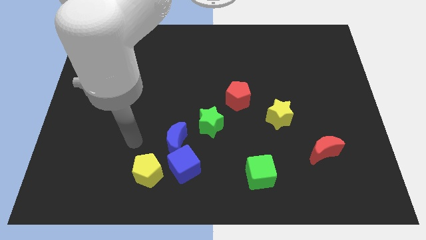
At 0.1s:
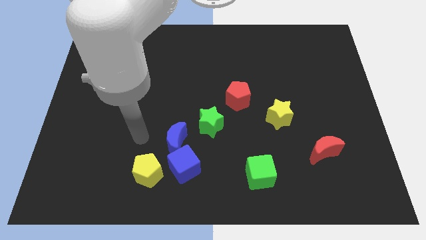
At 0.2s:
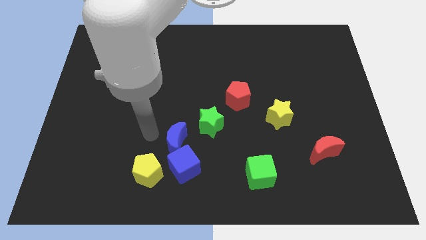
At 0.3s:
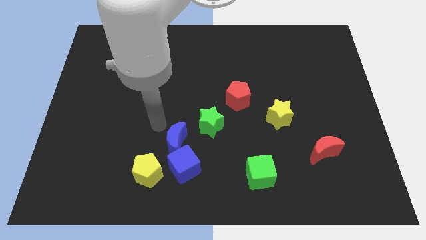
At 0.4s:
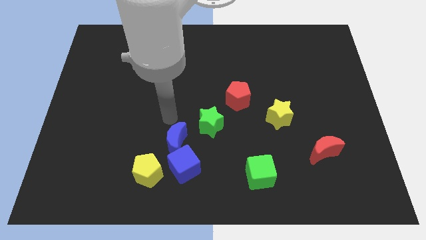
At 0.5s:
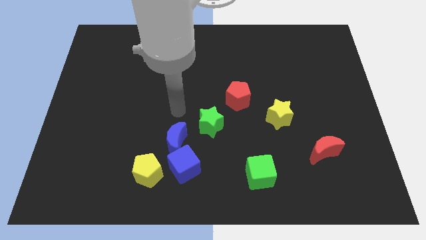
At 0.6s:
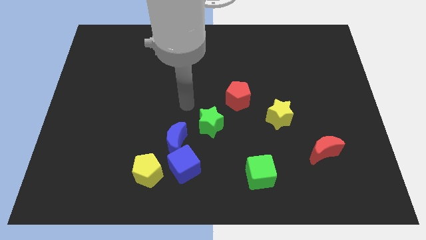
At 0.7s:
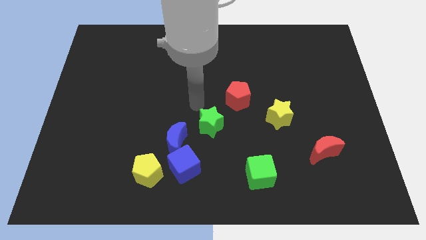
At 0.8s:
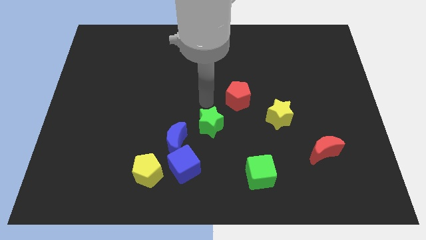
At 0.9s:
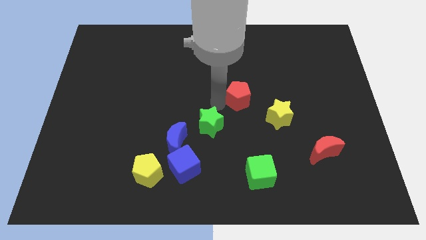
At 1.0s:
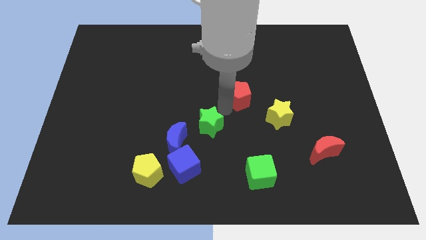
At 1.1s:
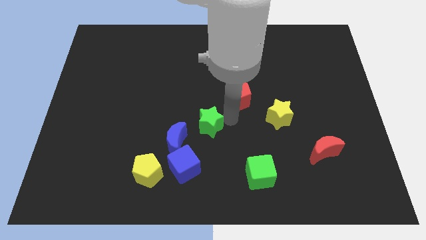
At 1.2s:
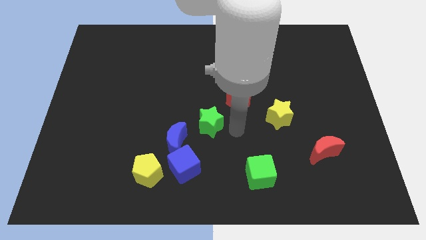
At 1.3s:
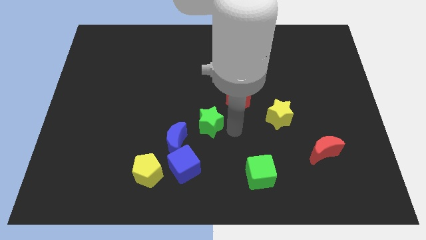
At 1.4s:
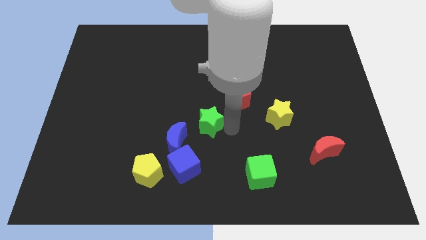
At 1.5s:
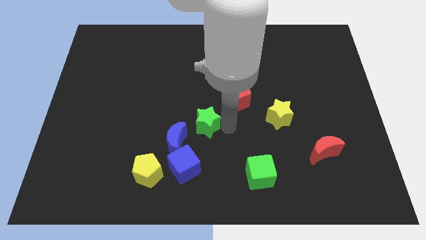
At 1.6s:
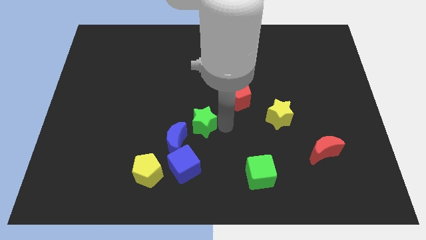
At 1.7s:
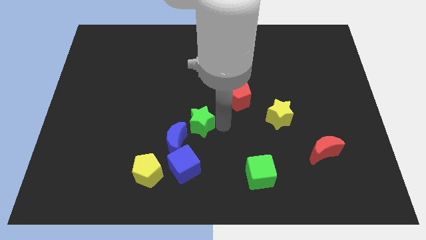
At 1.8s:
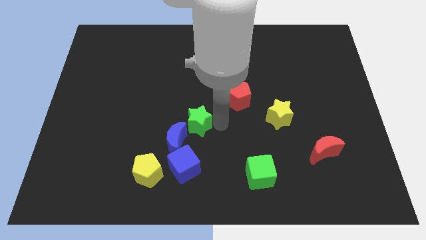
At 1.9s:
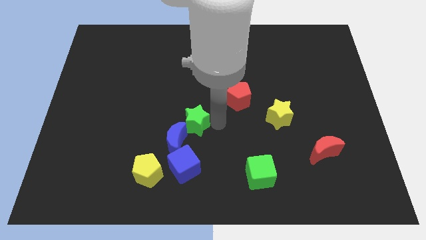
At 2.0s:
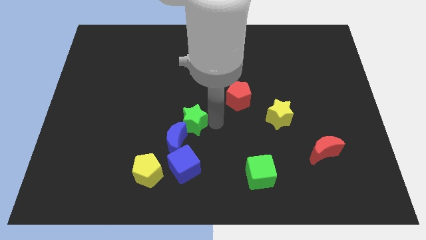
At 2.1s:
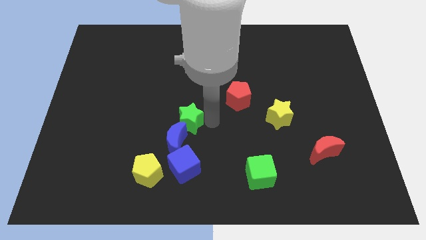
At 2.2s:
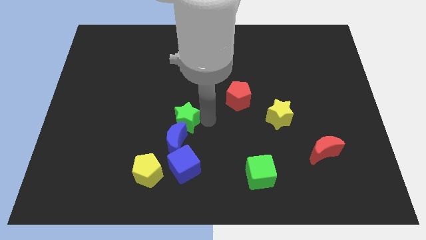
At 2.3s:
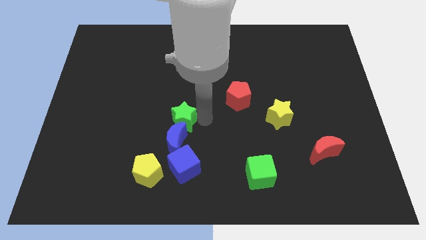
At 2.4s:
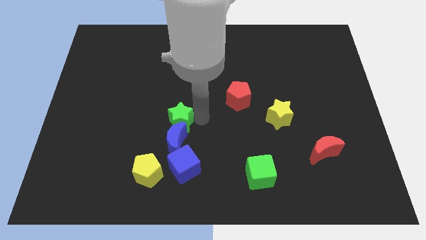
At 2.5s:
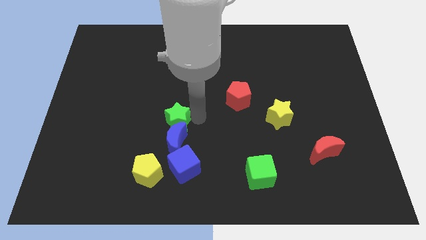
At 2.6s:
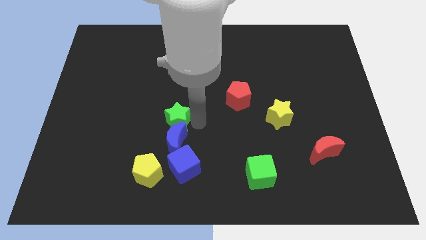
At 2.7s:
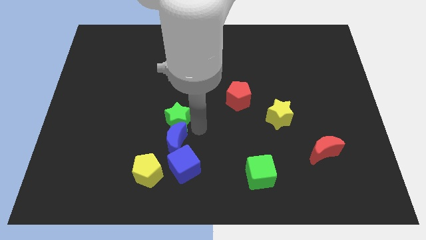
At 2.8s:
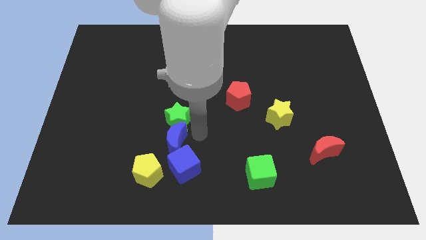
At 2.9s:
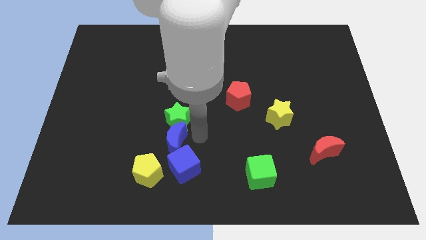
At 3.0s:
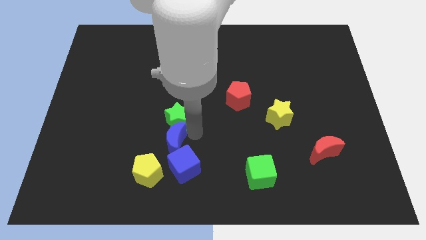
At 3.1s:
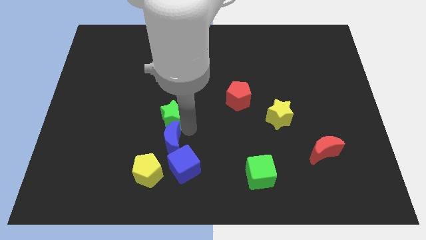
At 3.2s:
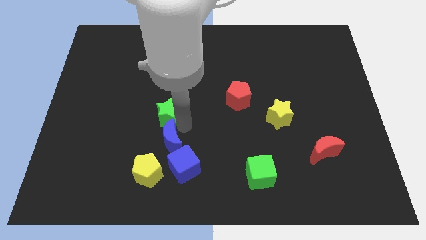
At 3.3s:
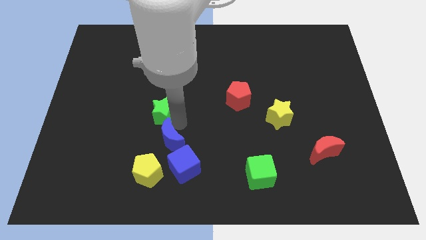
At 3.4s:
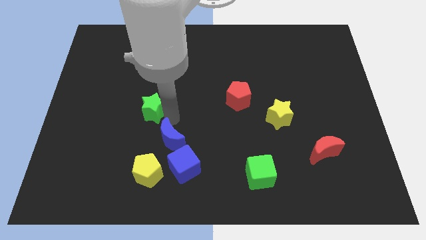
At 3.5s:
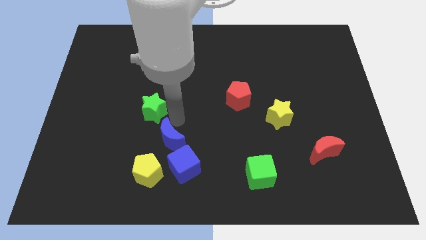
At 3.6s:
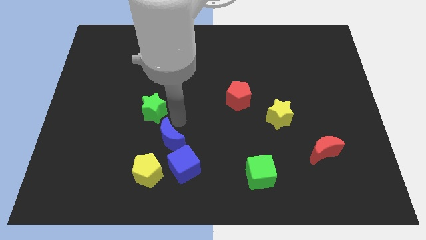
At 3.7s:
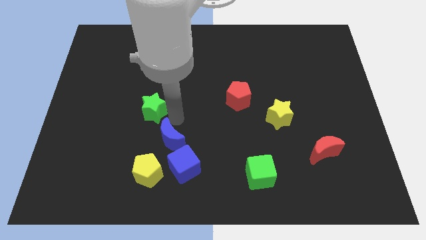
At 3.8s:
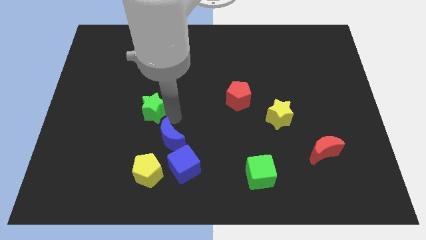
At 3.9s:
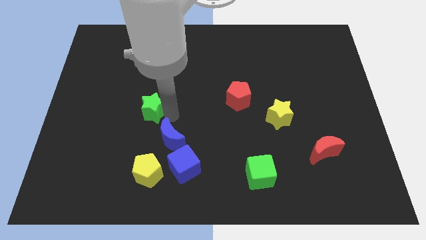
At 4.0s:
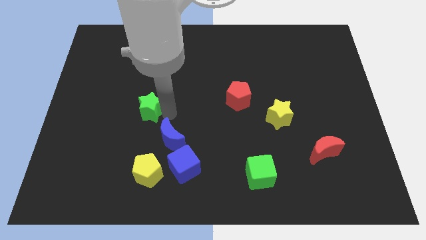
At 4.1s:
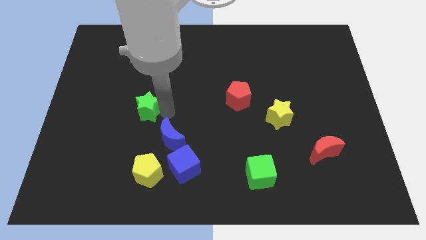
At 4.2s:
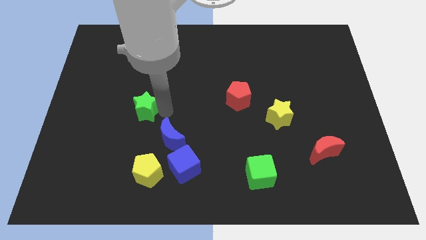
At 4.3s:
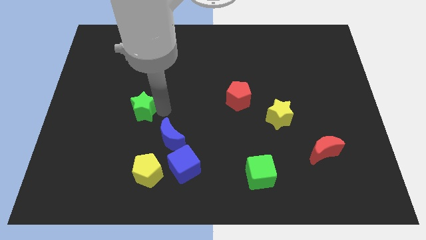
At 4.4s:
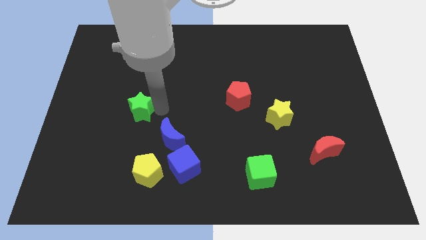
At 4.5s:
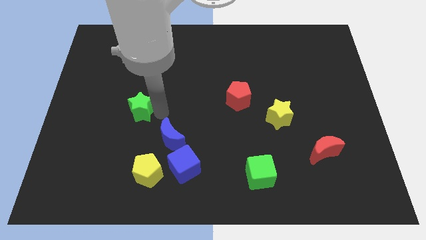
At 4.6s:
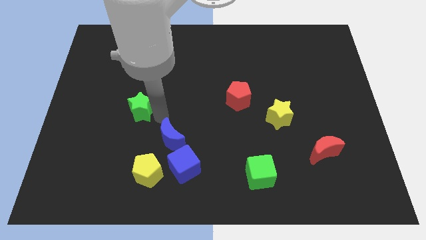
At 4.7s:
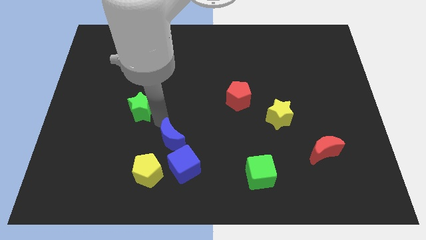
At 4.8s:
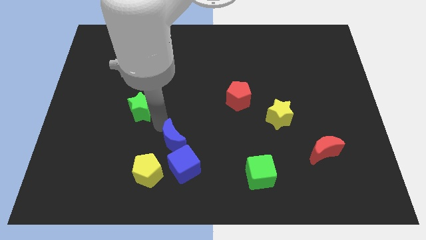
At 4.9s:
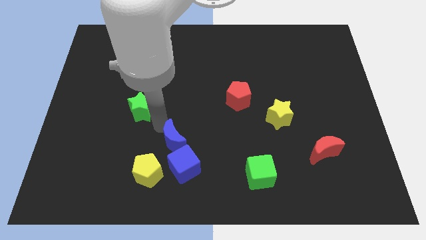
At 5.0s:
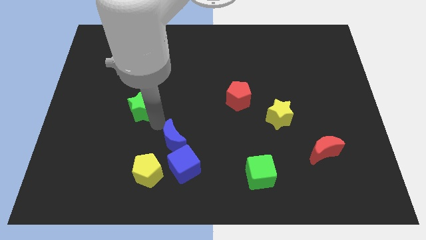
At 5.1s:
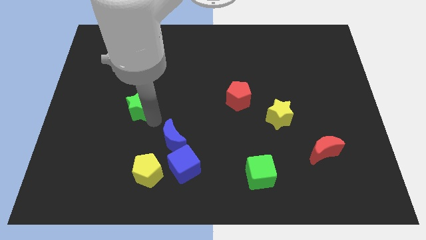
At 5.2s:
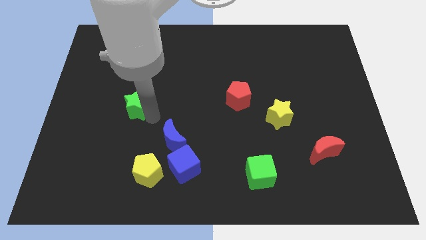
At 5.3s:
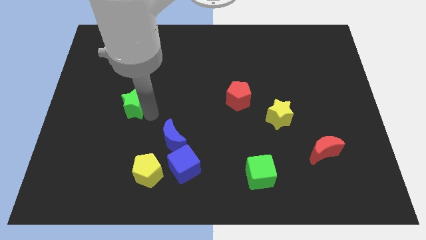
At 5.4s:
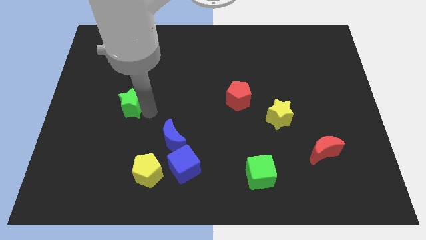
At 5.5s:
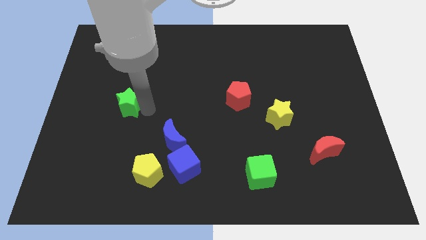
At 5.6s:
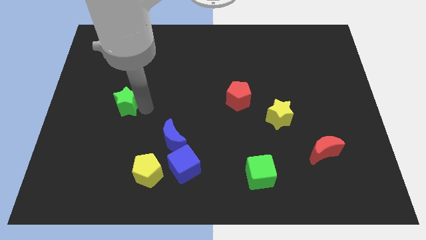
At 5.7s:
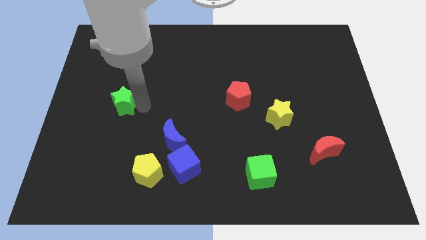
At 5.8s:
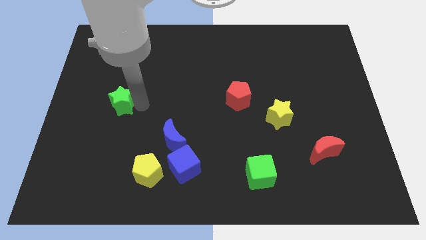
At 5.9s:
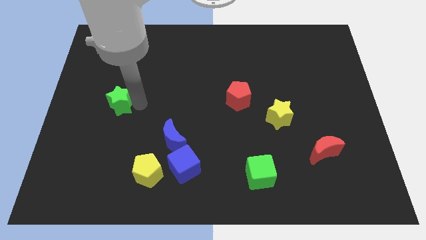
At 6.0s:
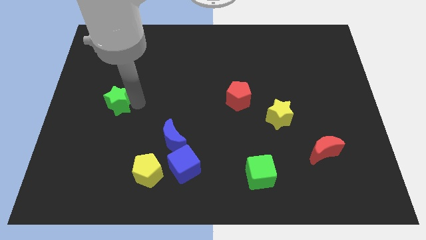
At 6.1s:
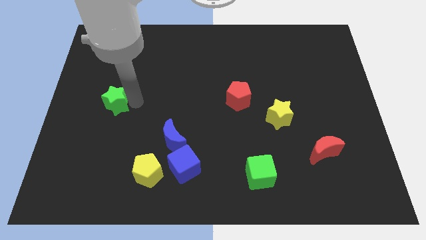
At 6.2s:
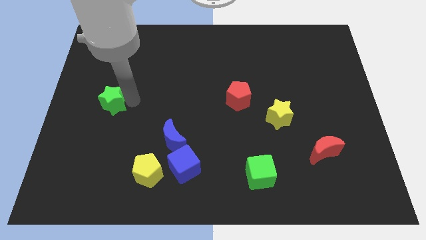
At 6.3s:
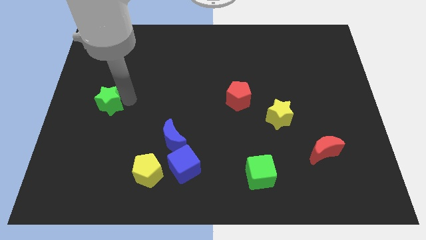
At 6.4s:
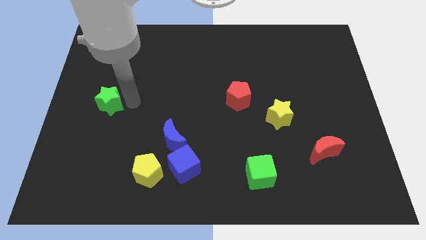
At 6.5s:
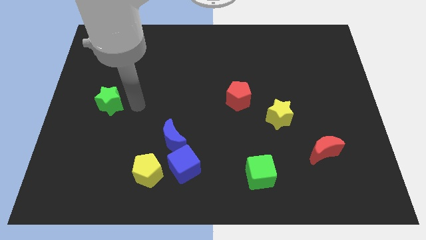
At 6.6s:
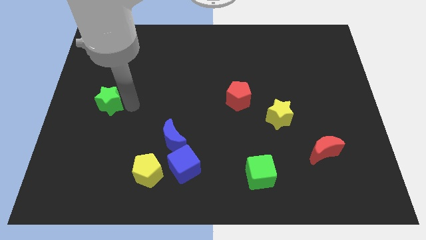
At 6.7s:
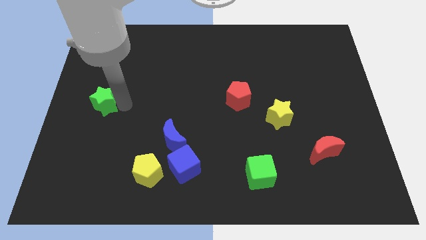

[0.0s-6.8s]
slide the green star to the center left
